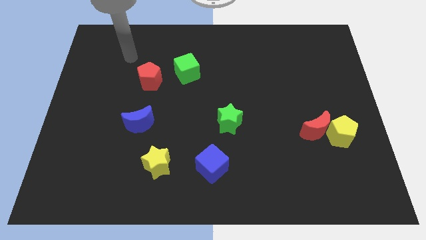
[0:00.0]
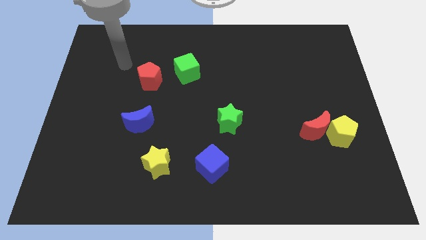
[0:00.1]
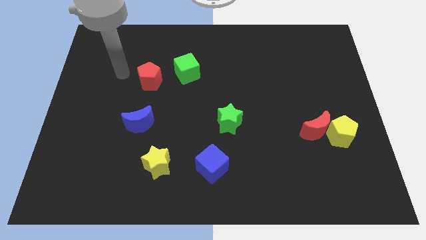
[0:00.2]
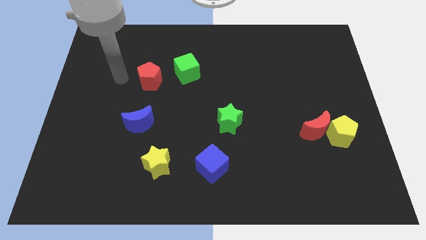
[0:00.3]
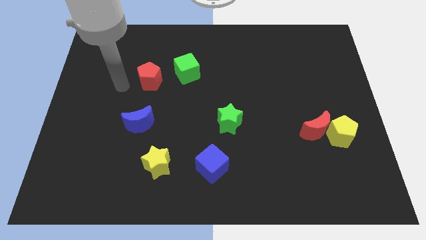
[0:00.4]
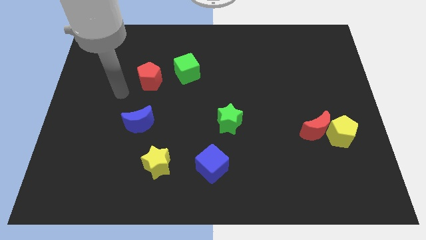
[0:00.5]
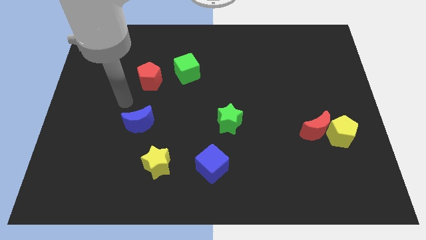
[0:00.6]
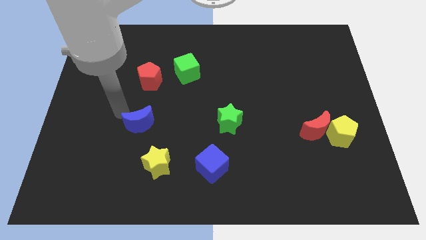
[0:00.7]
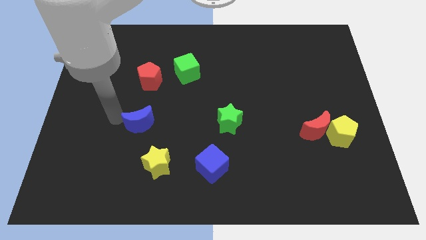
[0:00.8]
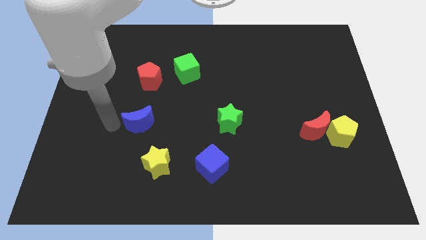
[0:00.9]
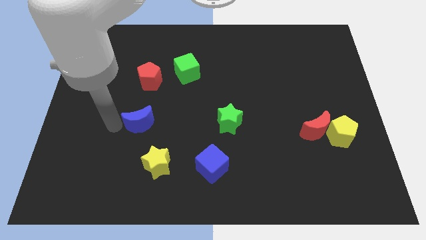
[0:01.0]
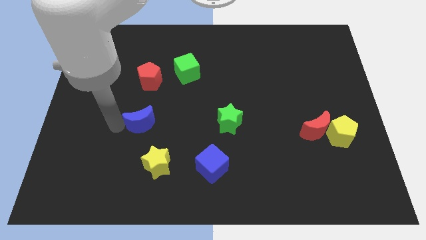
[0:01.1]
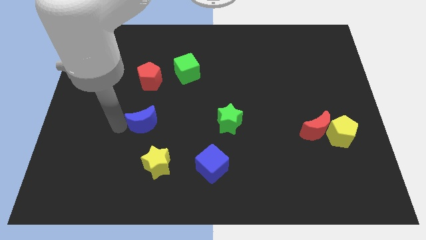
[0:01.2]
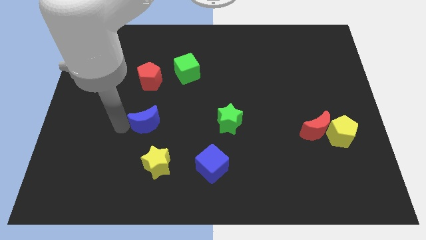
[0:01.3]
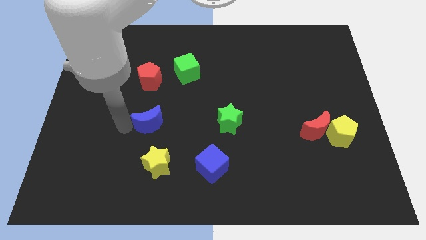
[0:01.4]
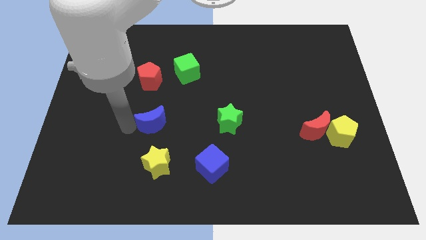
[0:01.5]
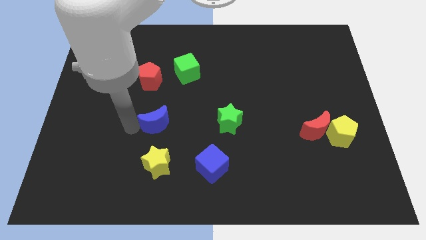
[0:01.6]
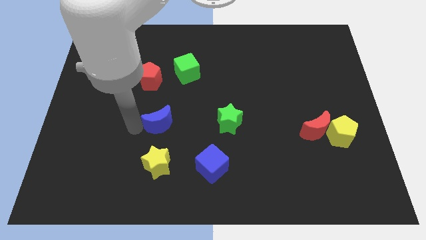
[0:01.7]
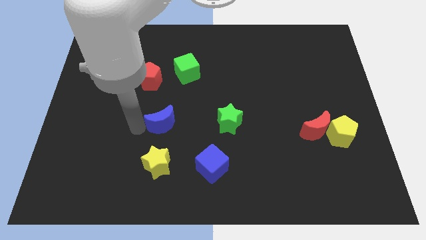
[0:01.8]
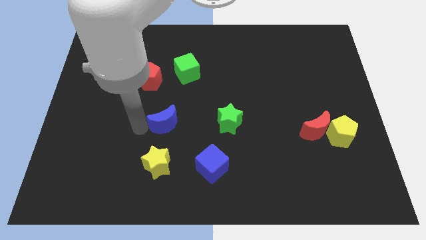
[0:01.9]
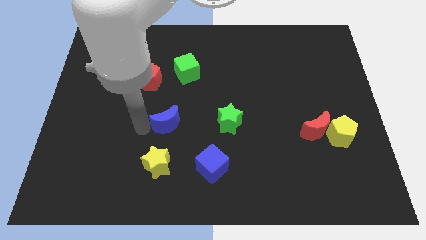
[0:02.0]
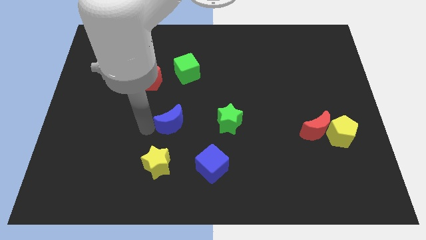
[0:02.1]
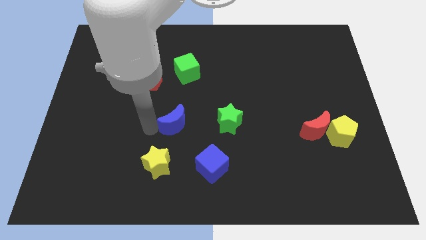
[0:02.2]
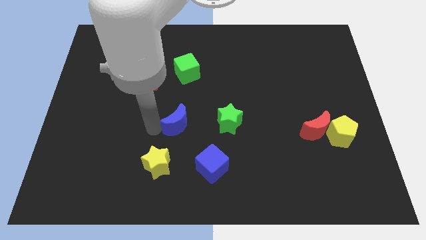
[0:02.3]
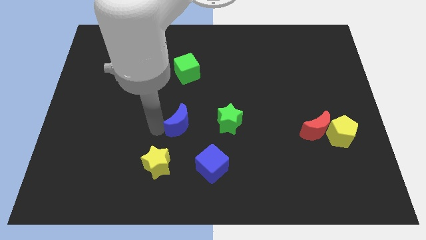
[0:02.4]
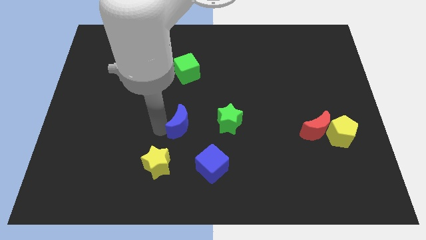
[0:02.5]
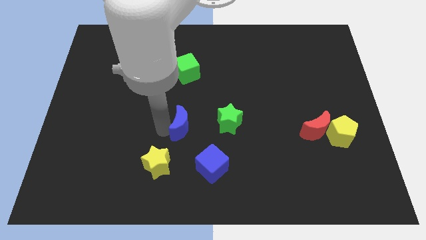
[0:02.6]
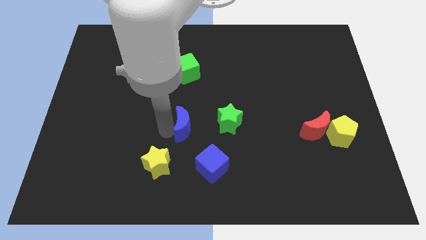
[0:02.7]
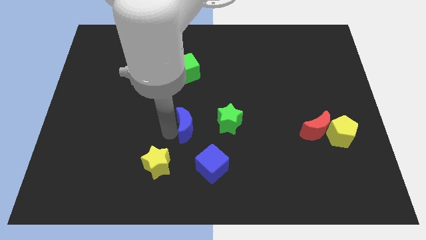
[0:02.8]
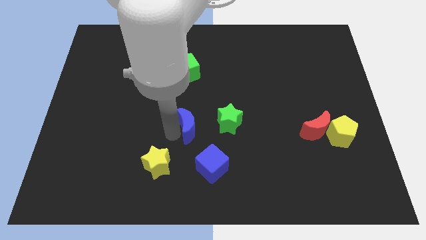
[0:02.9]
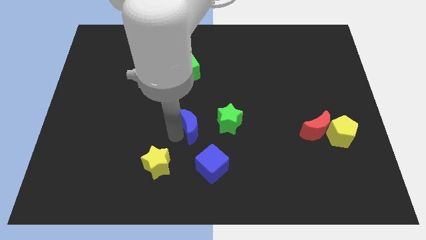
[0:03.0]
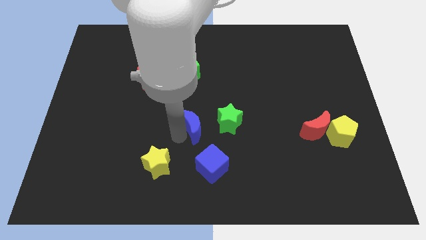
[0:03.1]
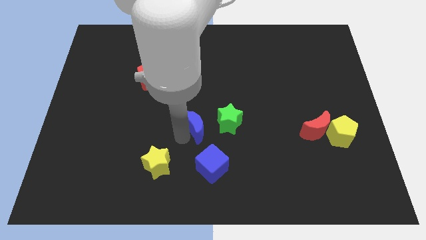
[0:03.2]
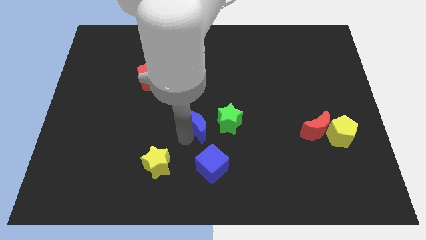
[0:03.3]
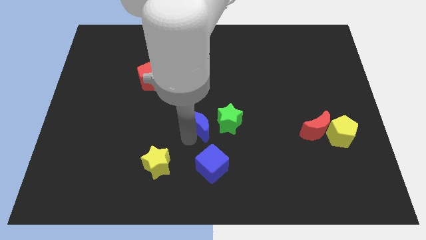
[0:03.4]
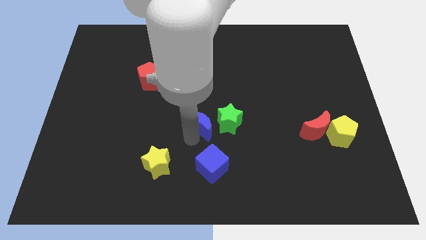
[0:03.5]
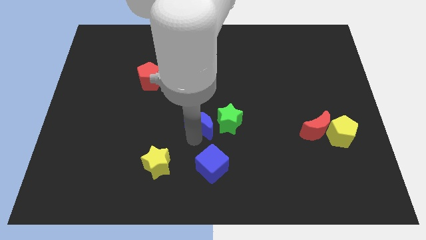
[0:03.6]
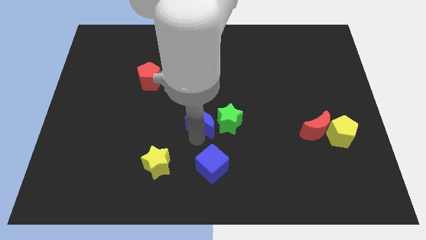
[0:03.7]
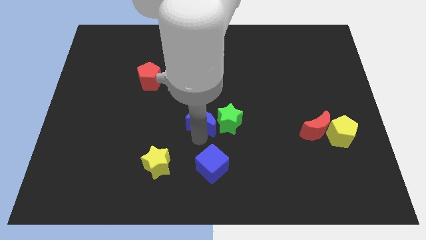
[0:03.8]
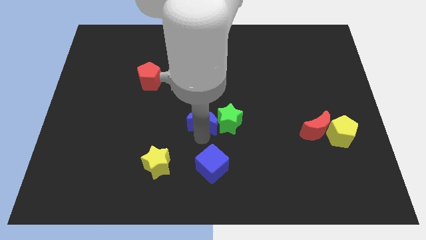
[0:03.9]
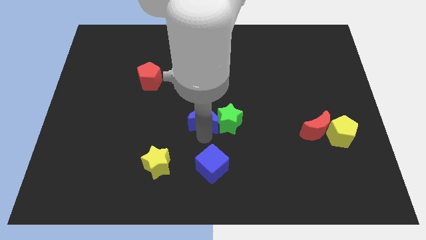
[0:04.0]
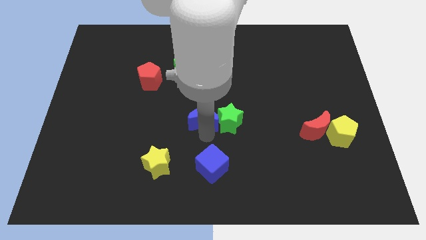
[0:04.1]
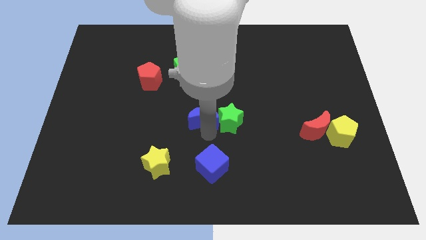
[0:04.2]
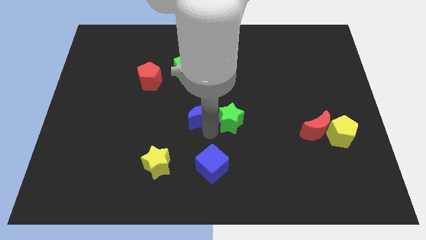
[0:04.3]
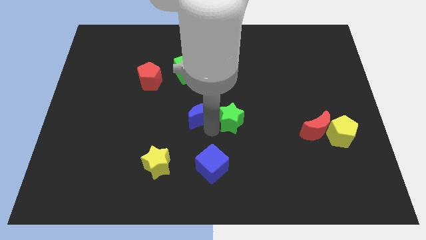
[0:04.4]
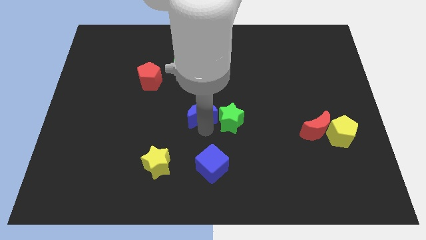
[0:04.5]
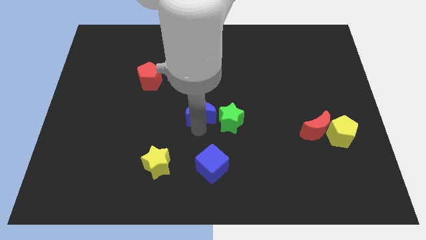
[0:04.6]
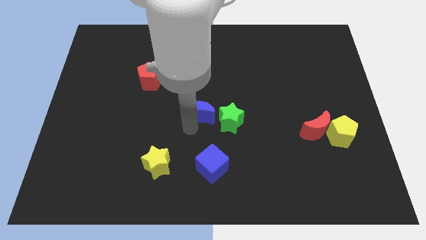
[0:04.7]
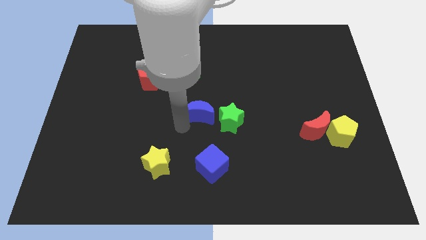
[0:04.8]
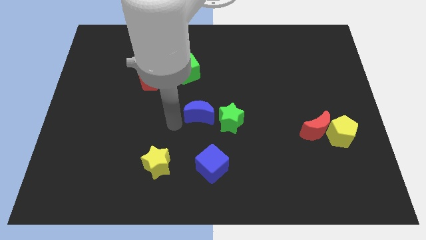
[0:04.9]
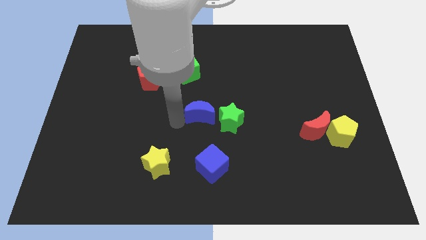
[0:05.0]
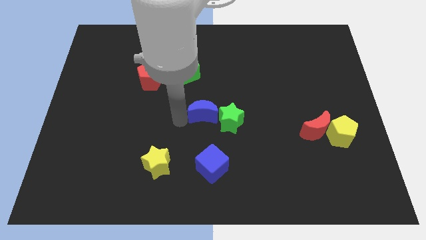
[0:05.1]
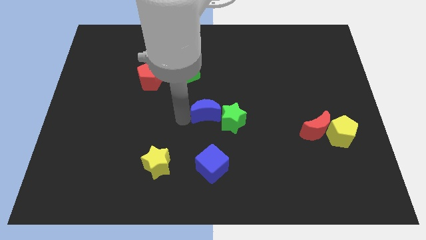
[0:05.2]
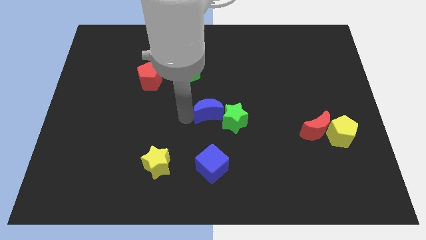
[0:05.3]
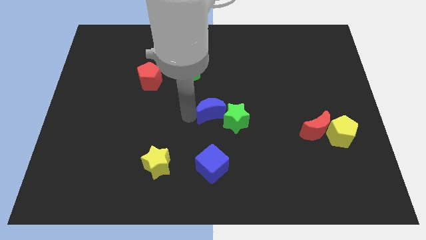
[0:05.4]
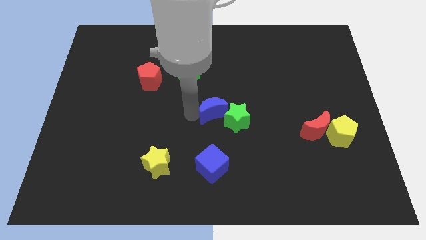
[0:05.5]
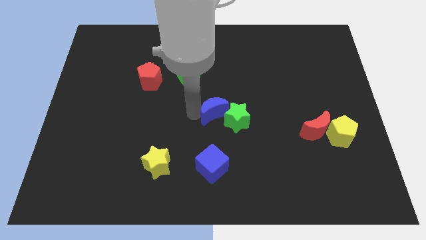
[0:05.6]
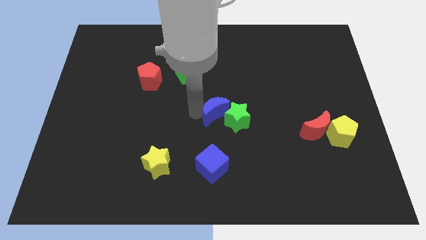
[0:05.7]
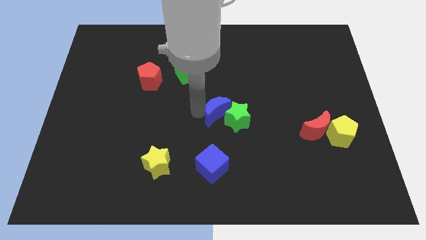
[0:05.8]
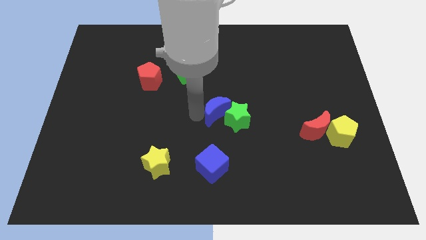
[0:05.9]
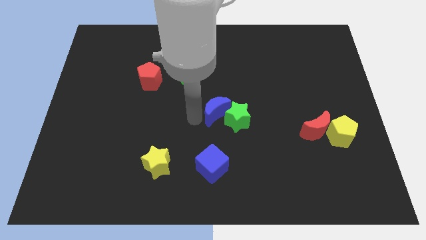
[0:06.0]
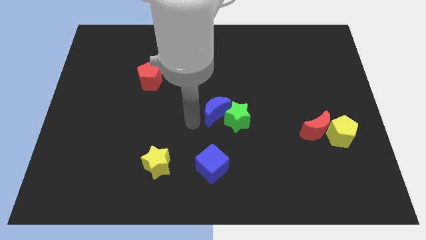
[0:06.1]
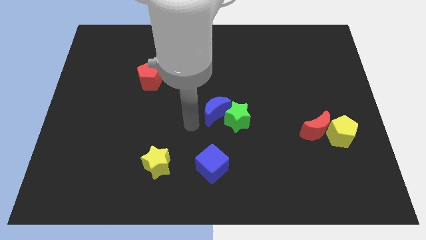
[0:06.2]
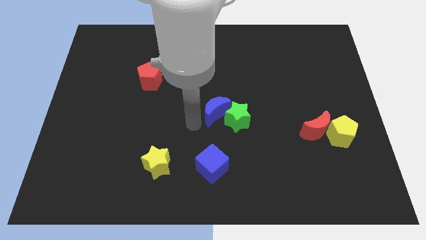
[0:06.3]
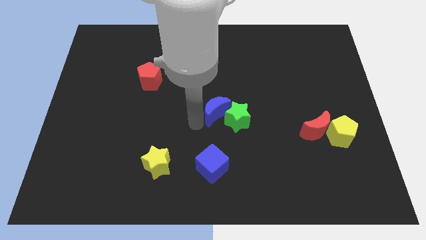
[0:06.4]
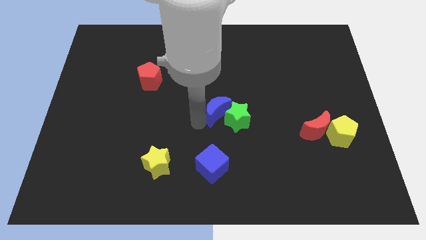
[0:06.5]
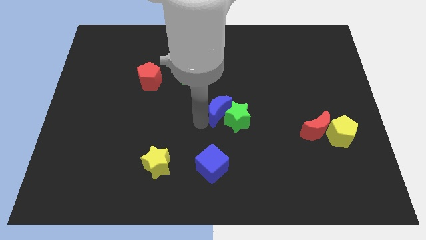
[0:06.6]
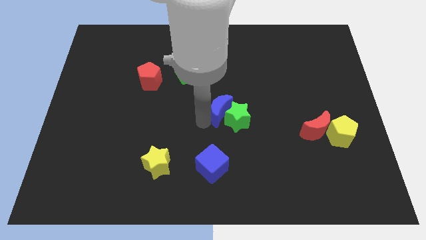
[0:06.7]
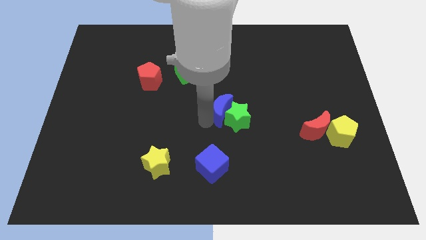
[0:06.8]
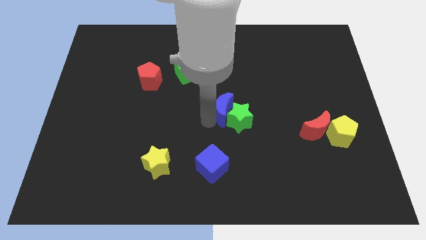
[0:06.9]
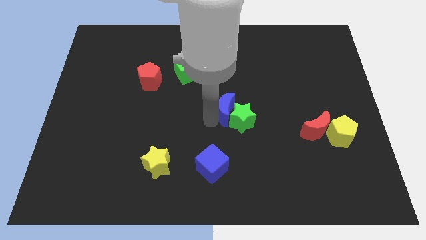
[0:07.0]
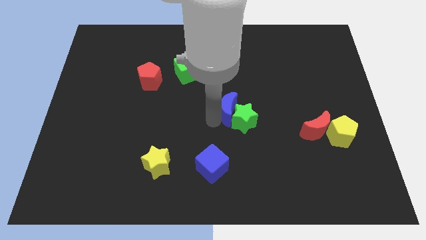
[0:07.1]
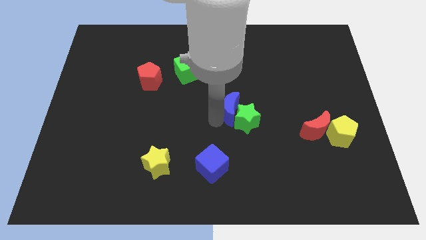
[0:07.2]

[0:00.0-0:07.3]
slide the blue moon right

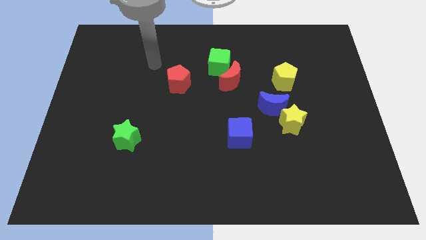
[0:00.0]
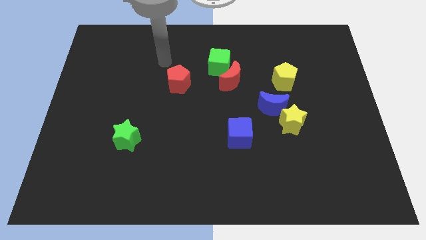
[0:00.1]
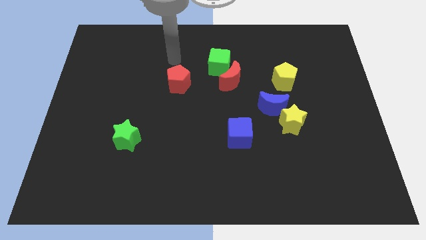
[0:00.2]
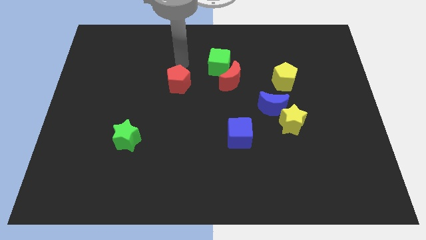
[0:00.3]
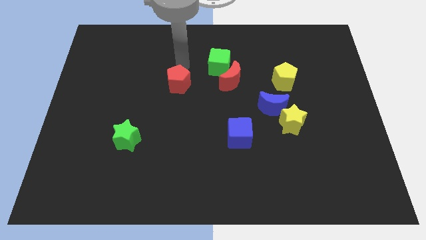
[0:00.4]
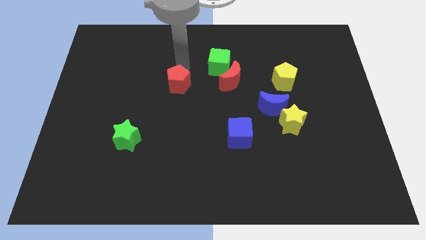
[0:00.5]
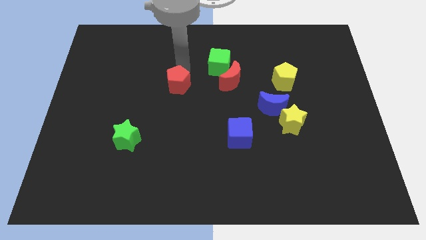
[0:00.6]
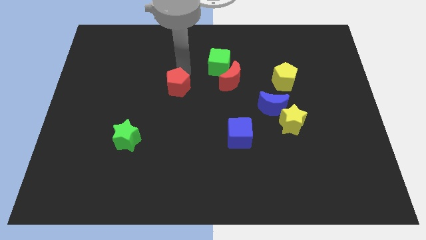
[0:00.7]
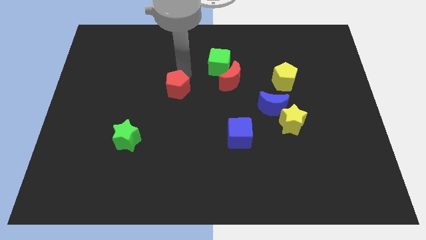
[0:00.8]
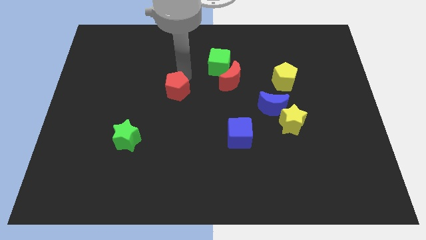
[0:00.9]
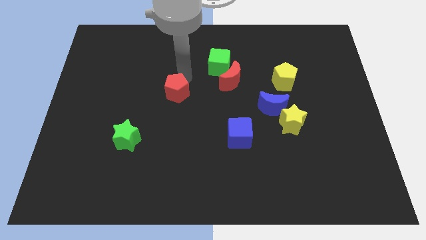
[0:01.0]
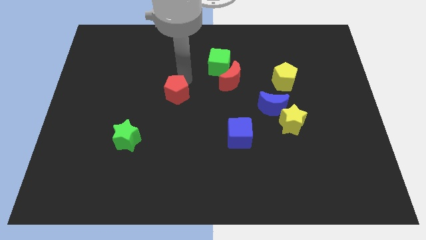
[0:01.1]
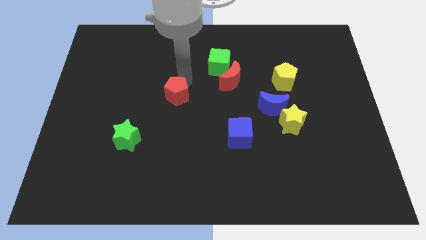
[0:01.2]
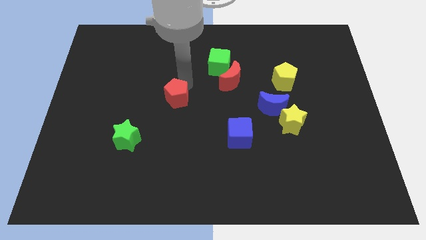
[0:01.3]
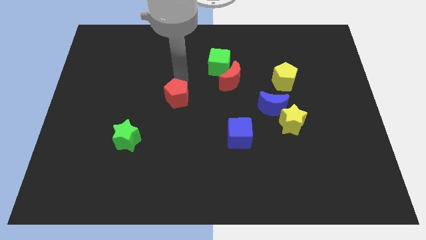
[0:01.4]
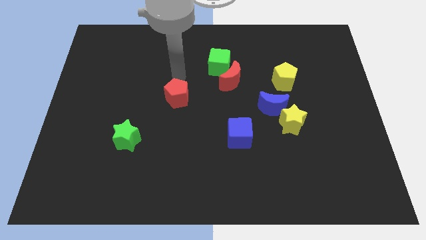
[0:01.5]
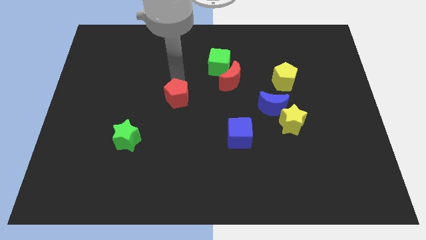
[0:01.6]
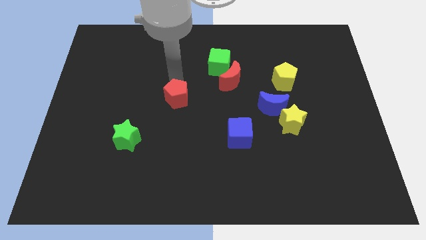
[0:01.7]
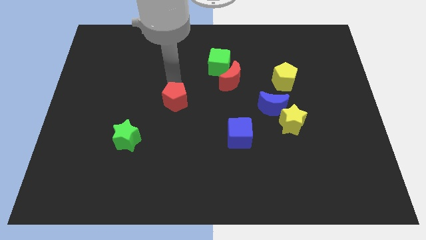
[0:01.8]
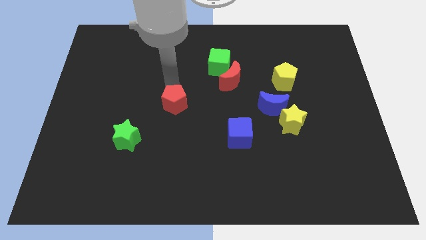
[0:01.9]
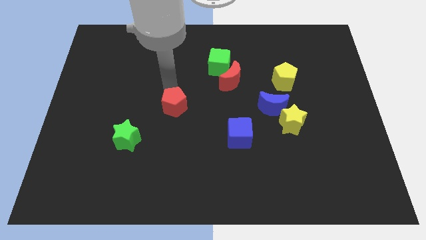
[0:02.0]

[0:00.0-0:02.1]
slightly slide the red pentagon down
